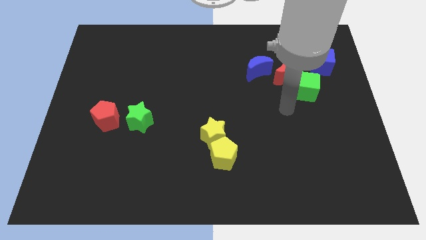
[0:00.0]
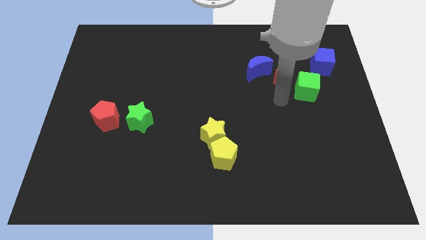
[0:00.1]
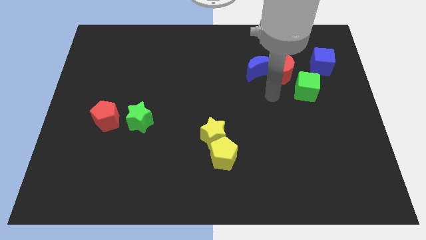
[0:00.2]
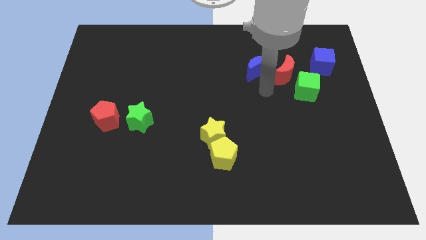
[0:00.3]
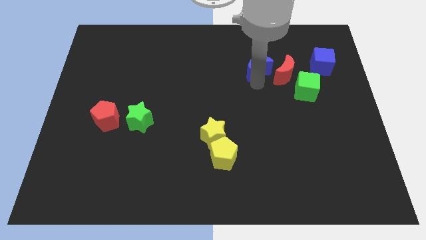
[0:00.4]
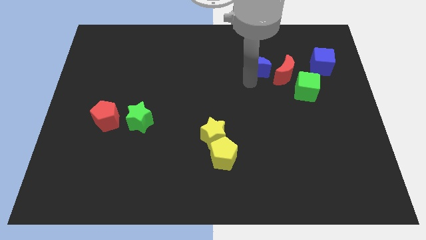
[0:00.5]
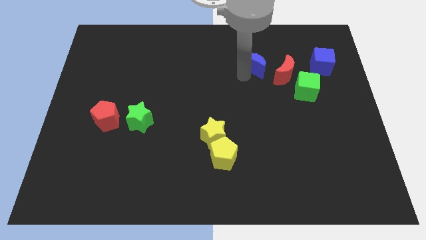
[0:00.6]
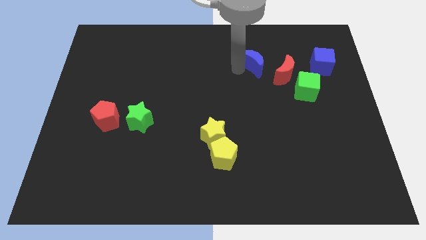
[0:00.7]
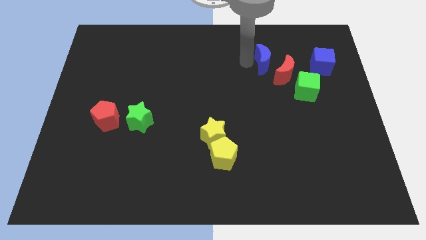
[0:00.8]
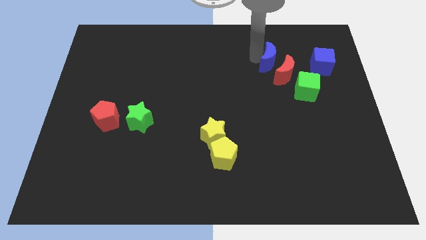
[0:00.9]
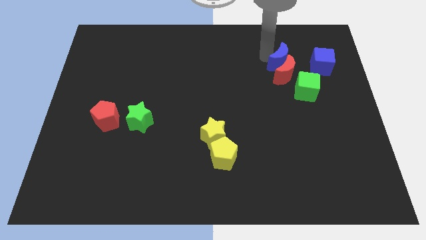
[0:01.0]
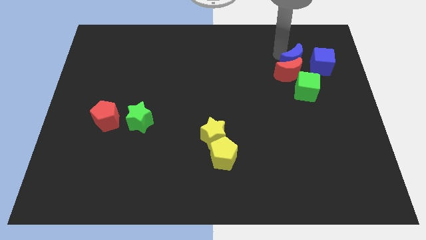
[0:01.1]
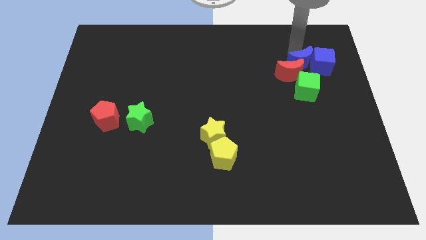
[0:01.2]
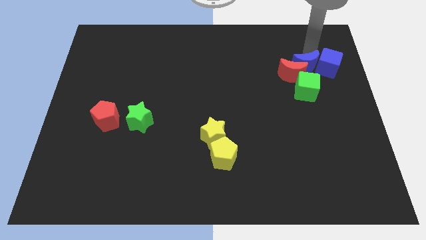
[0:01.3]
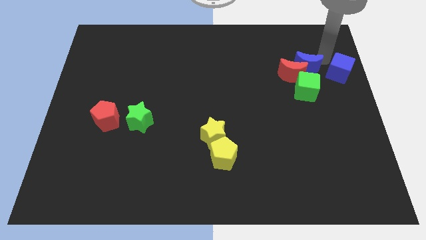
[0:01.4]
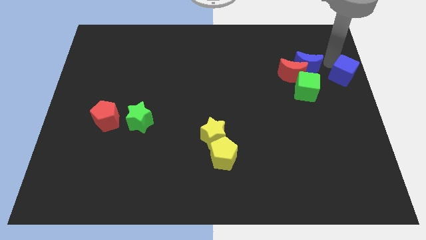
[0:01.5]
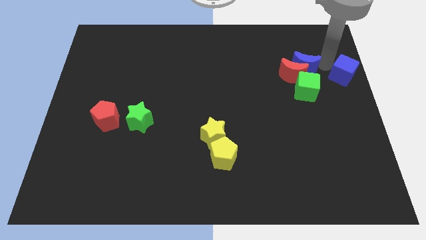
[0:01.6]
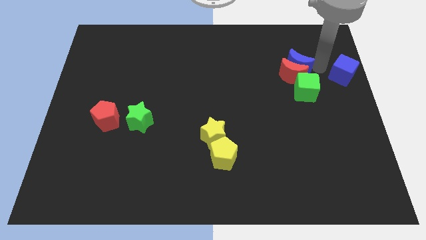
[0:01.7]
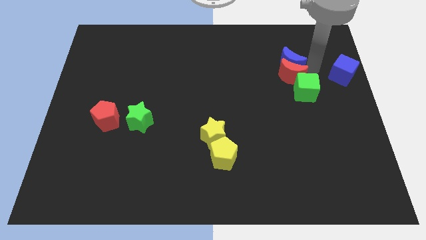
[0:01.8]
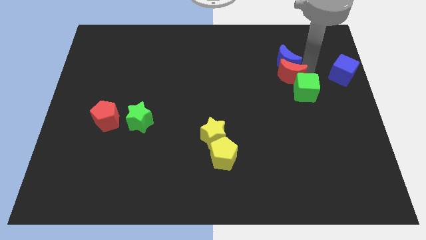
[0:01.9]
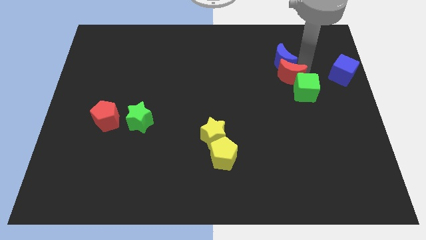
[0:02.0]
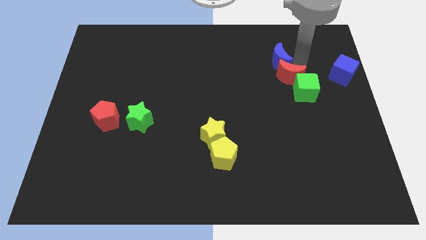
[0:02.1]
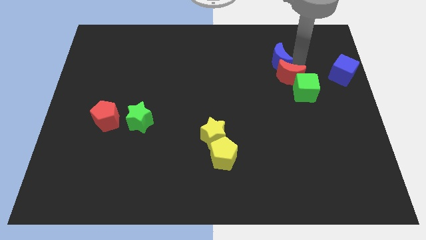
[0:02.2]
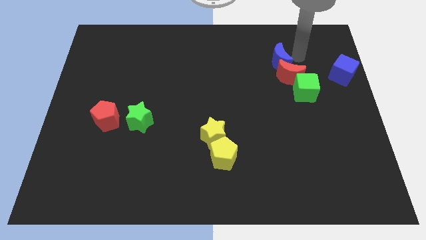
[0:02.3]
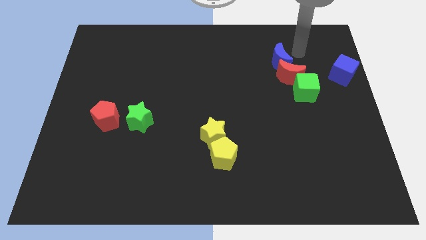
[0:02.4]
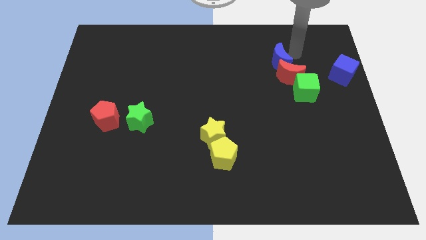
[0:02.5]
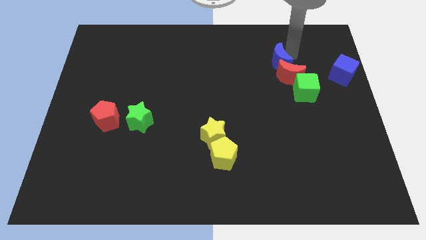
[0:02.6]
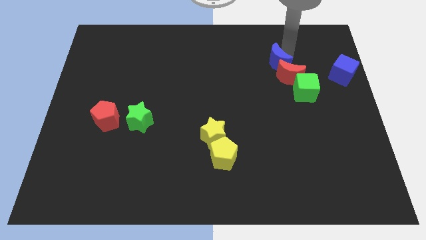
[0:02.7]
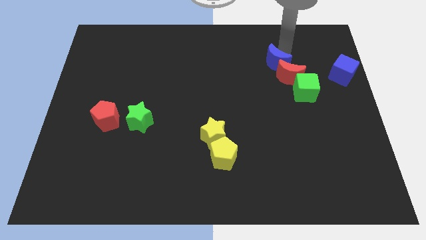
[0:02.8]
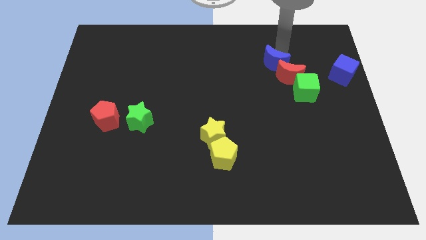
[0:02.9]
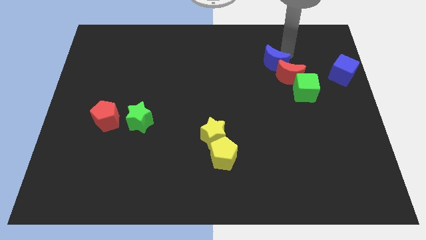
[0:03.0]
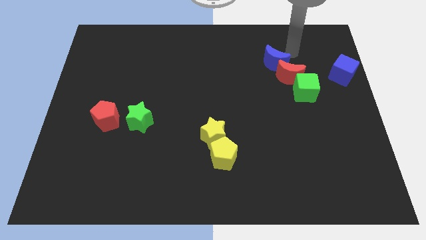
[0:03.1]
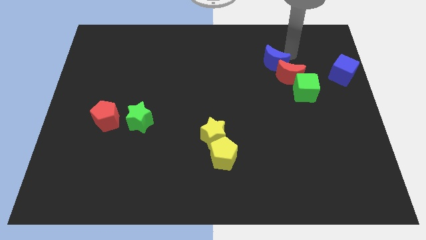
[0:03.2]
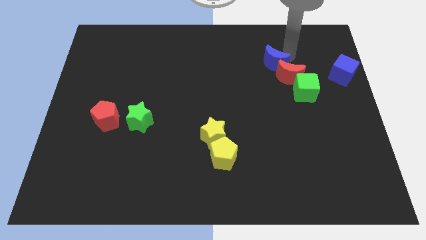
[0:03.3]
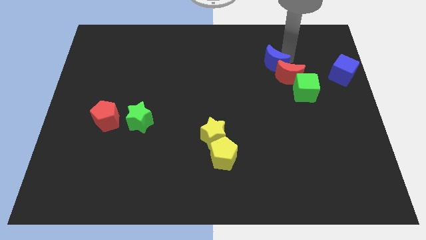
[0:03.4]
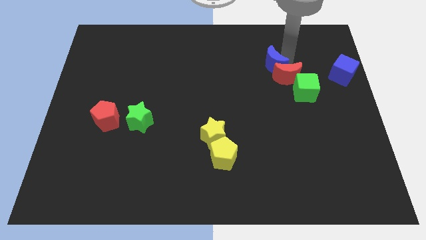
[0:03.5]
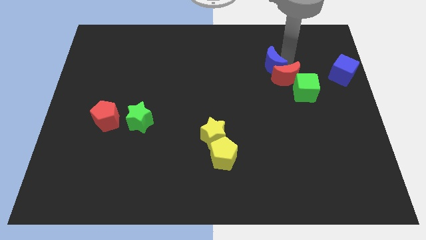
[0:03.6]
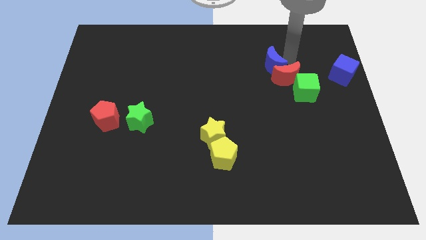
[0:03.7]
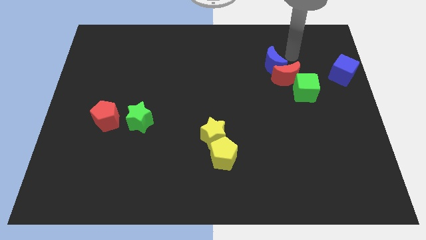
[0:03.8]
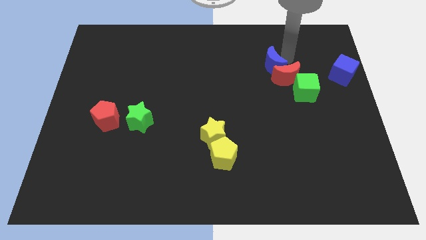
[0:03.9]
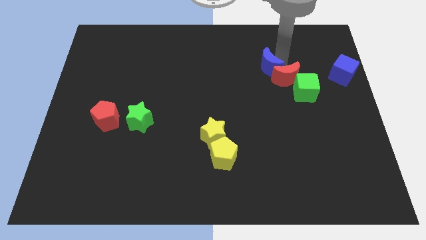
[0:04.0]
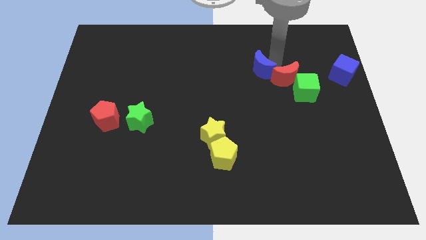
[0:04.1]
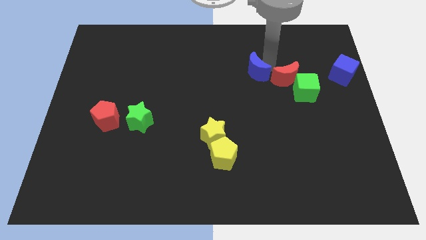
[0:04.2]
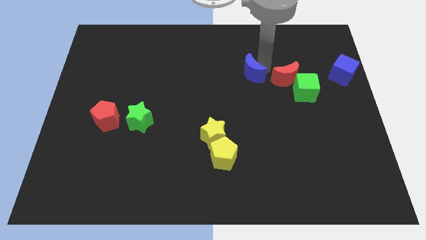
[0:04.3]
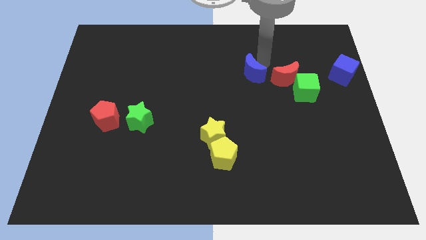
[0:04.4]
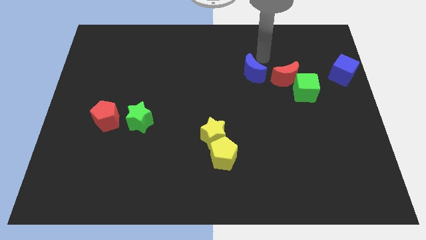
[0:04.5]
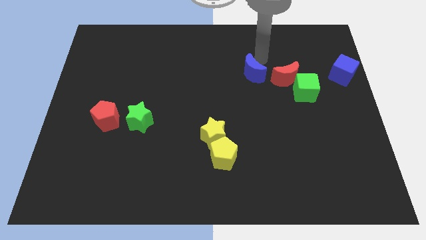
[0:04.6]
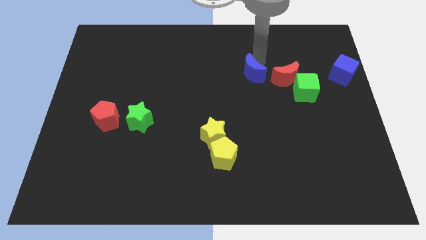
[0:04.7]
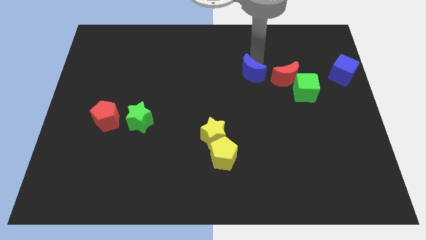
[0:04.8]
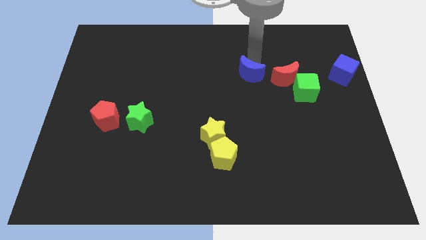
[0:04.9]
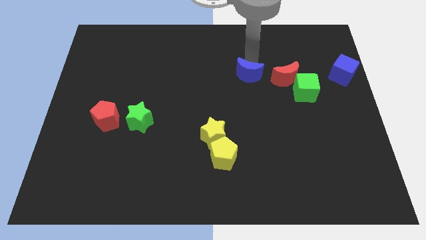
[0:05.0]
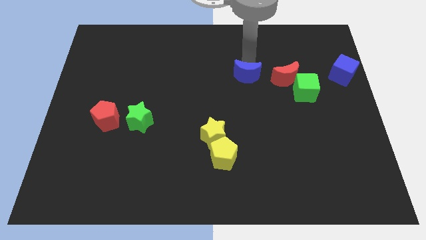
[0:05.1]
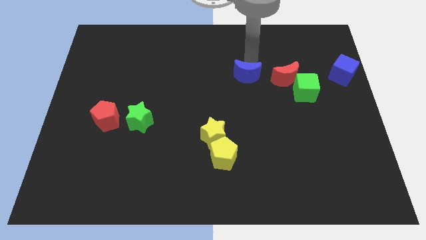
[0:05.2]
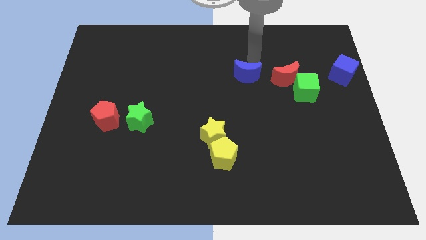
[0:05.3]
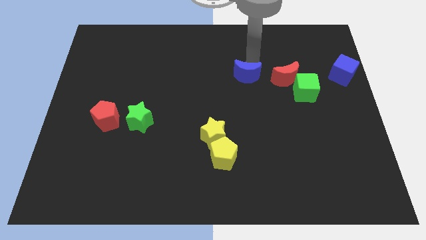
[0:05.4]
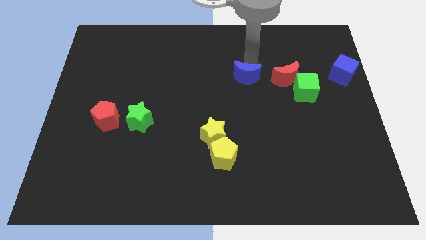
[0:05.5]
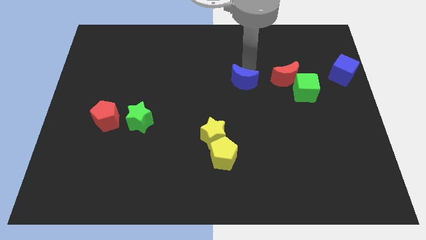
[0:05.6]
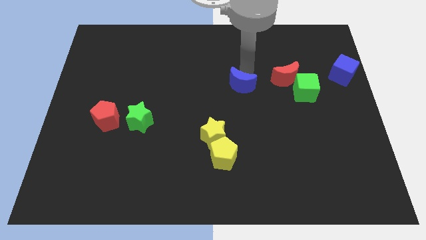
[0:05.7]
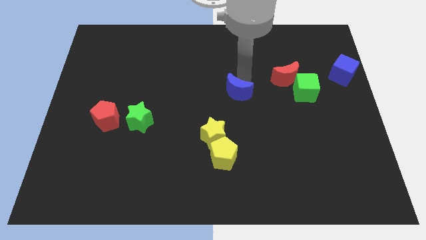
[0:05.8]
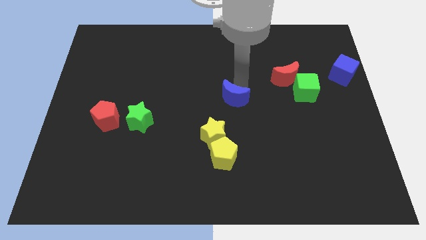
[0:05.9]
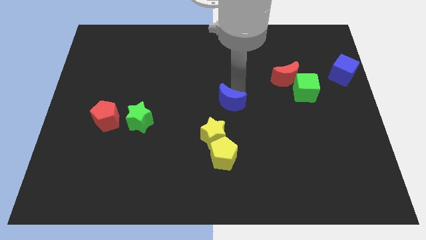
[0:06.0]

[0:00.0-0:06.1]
move the blue moon above the yellow pentagon

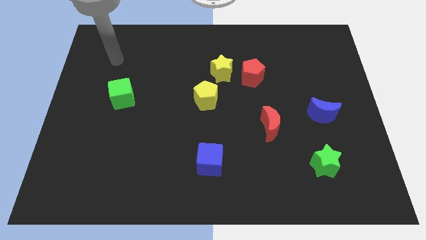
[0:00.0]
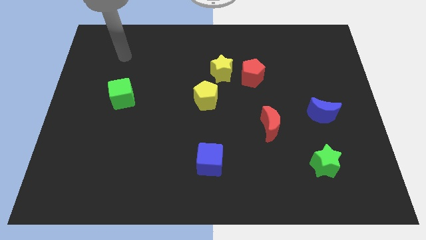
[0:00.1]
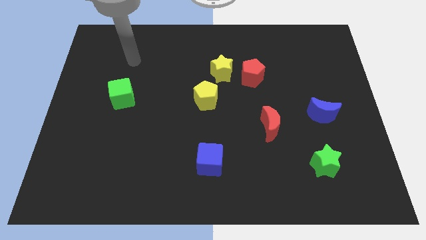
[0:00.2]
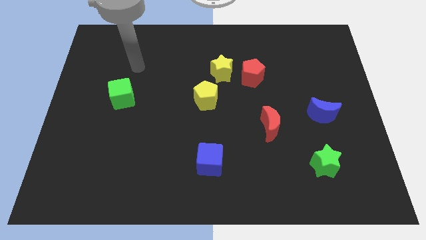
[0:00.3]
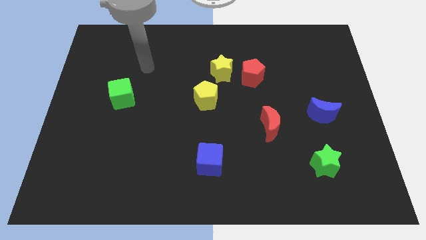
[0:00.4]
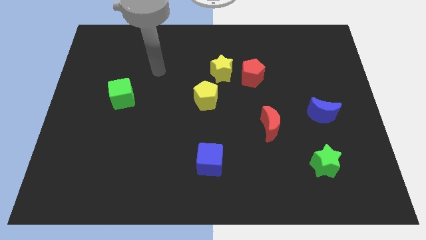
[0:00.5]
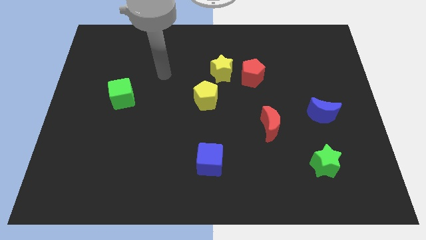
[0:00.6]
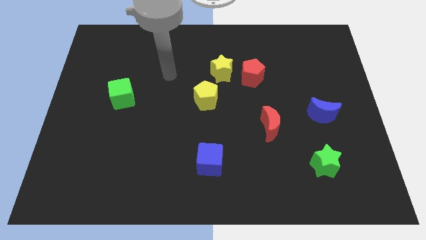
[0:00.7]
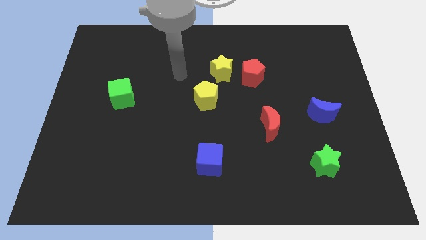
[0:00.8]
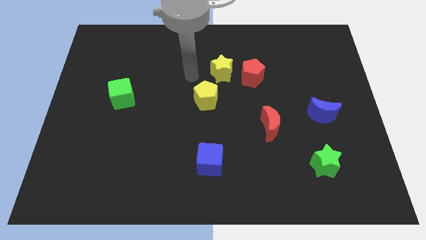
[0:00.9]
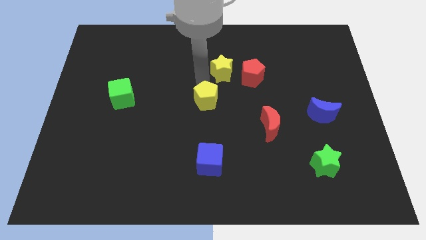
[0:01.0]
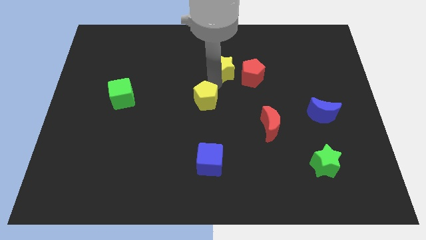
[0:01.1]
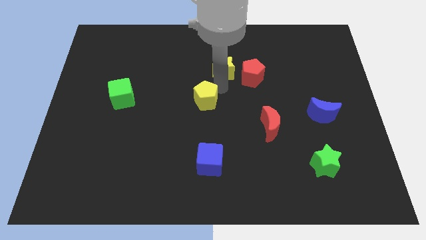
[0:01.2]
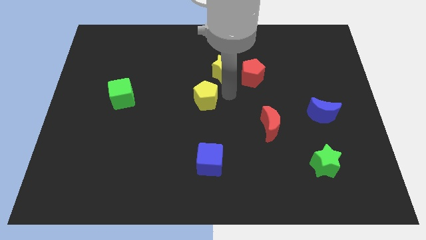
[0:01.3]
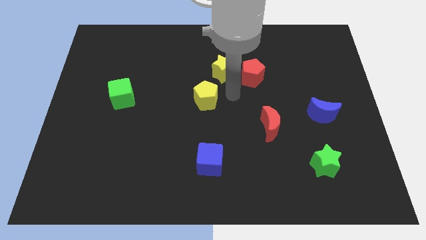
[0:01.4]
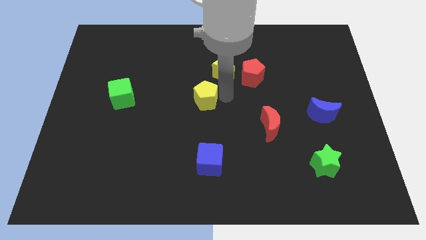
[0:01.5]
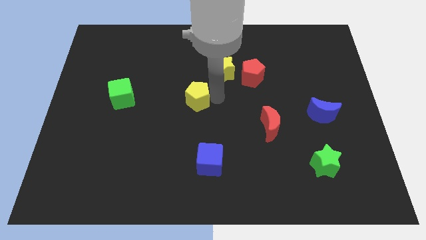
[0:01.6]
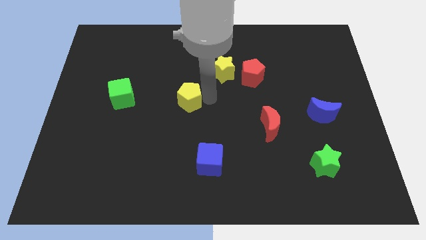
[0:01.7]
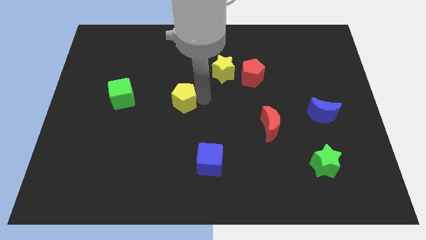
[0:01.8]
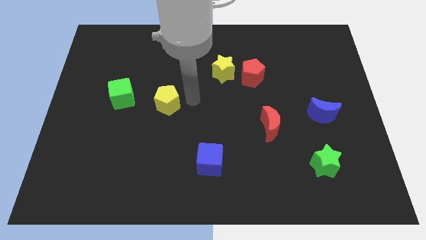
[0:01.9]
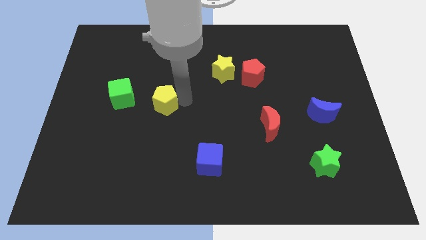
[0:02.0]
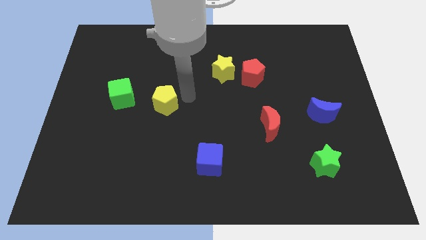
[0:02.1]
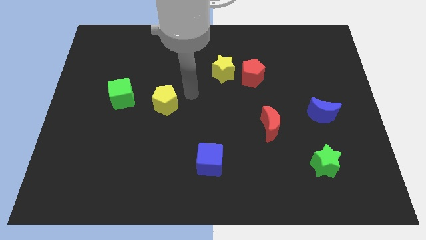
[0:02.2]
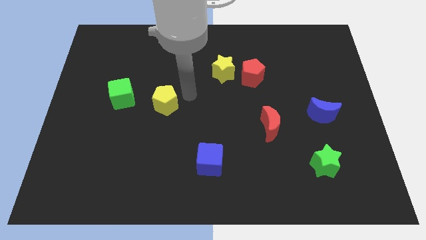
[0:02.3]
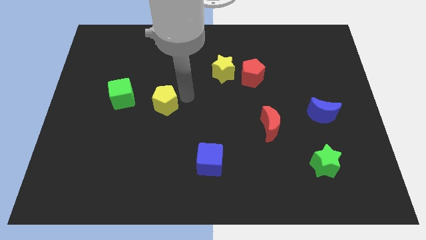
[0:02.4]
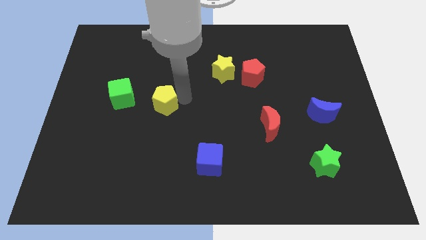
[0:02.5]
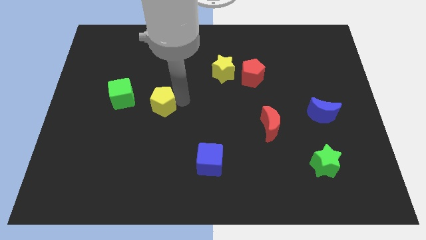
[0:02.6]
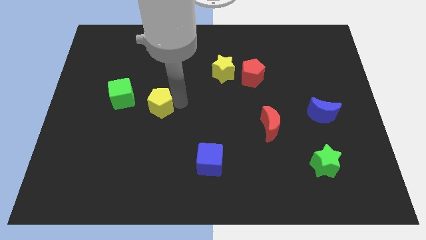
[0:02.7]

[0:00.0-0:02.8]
slide the yellow pentagon to the bottom right side of the green cube
